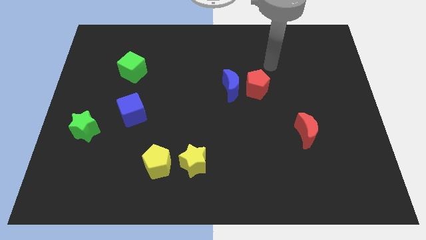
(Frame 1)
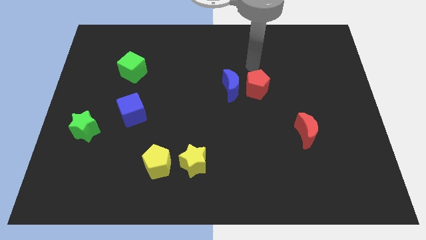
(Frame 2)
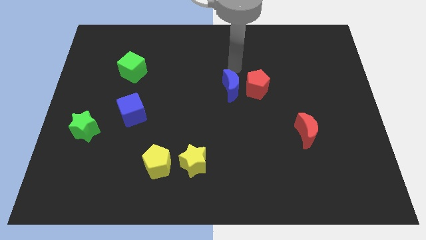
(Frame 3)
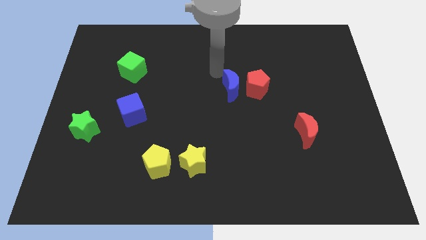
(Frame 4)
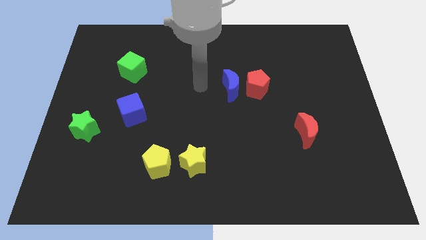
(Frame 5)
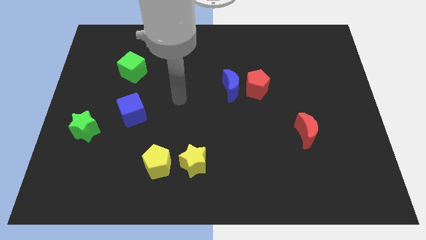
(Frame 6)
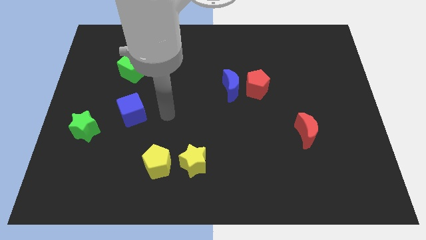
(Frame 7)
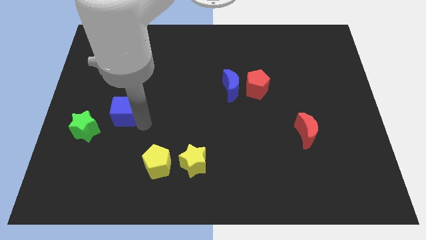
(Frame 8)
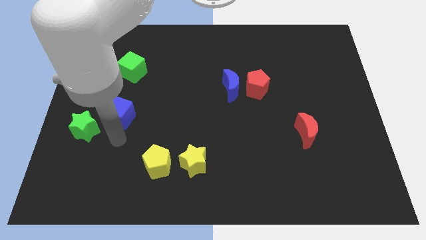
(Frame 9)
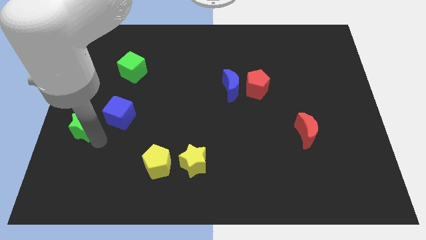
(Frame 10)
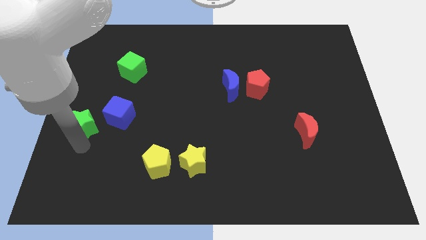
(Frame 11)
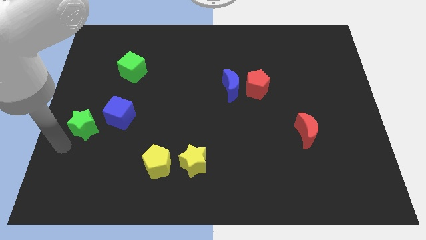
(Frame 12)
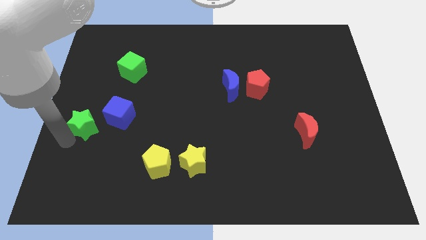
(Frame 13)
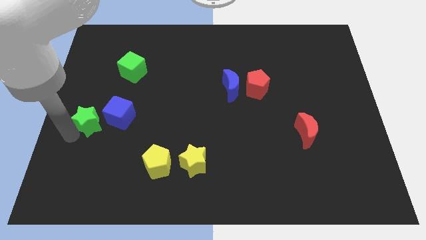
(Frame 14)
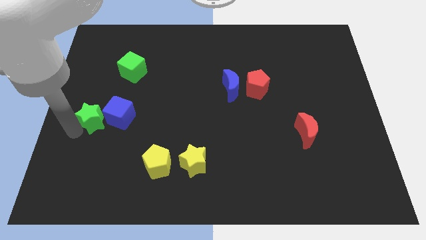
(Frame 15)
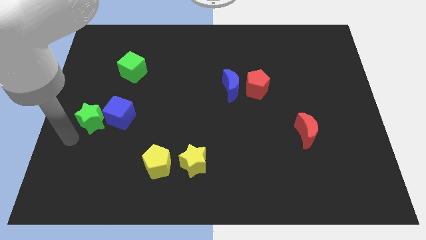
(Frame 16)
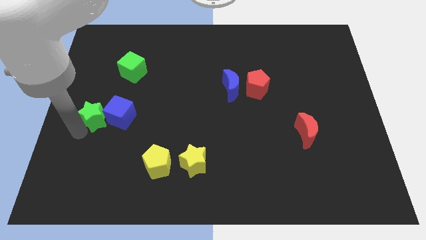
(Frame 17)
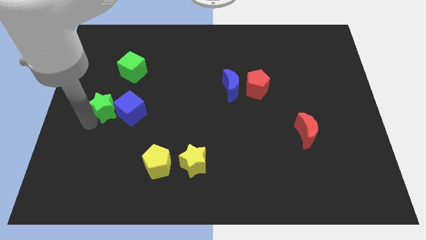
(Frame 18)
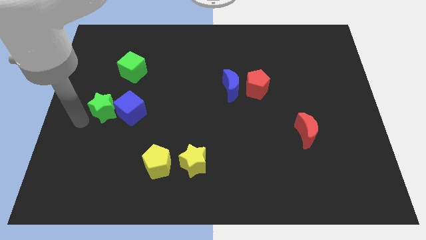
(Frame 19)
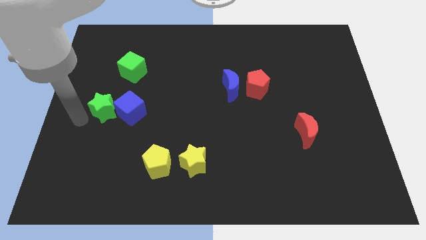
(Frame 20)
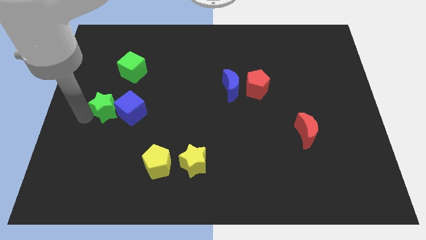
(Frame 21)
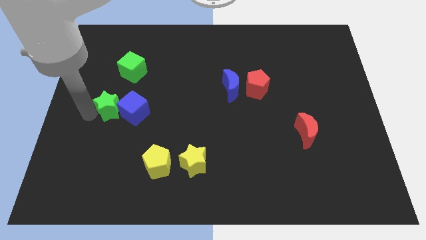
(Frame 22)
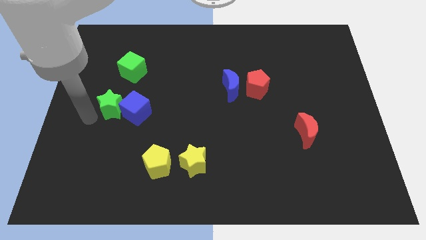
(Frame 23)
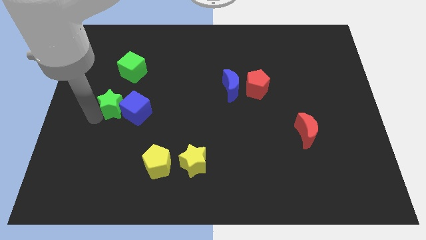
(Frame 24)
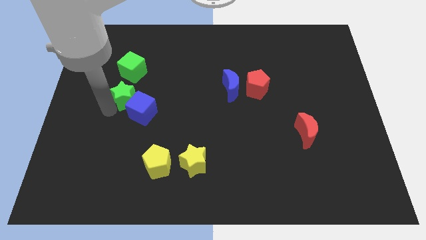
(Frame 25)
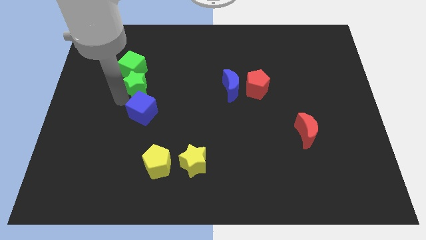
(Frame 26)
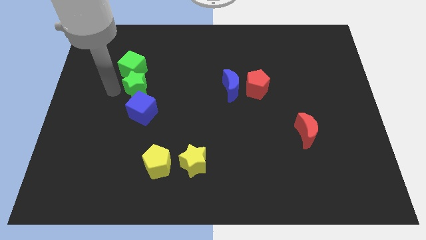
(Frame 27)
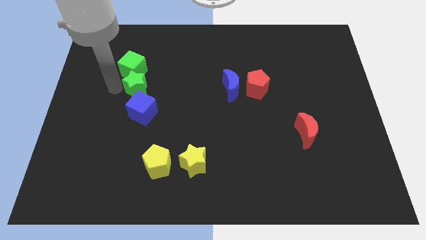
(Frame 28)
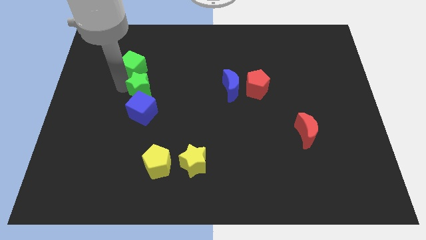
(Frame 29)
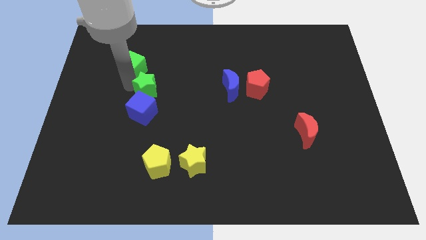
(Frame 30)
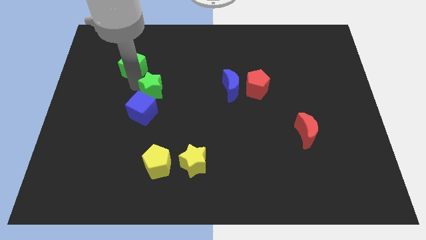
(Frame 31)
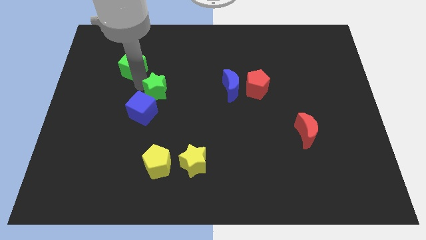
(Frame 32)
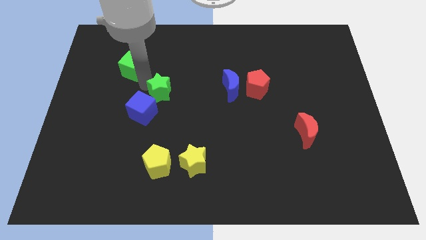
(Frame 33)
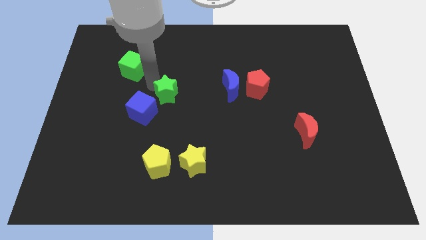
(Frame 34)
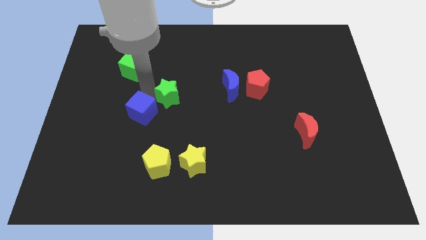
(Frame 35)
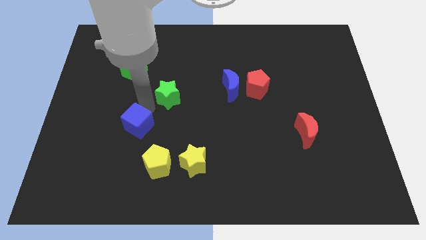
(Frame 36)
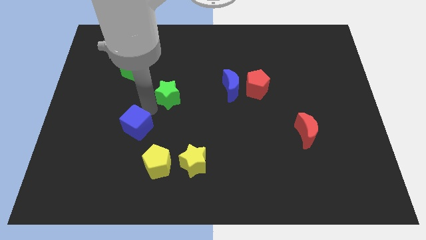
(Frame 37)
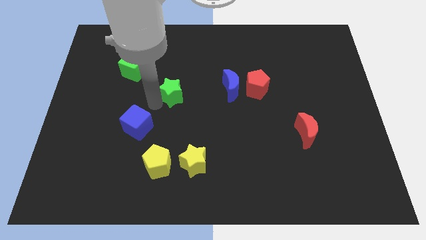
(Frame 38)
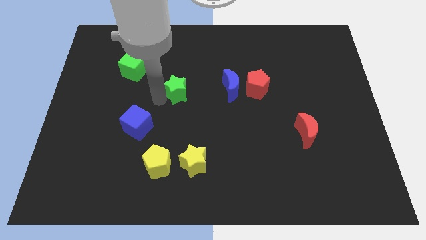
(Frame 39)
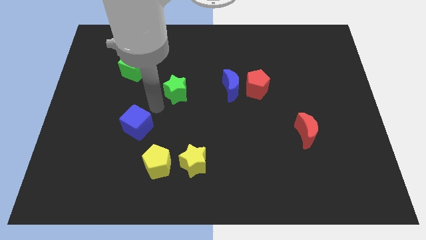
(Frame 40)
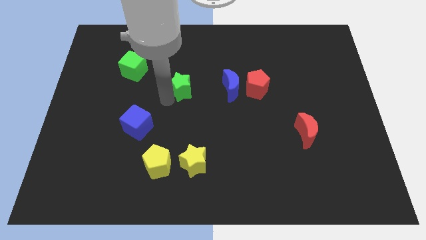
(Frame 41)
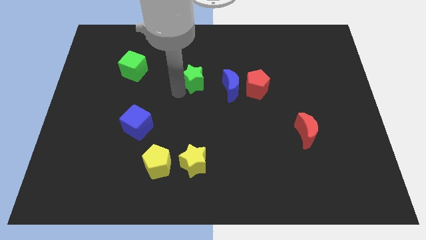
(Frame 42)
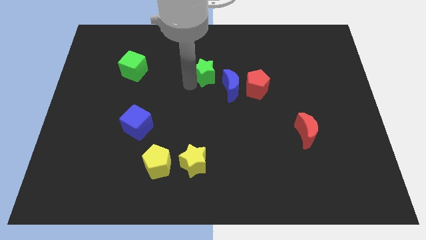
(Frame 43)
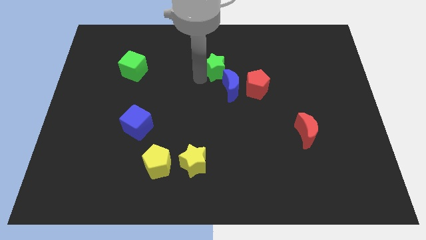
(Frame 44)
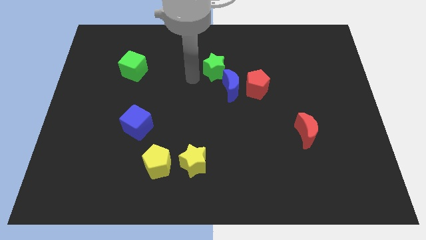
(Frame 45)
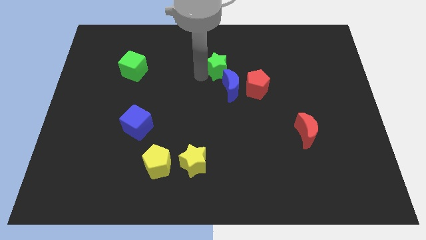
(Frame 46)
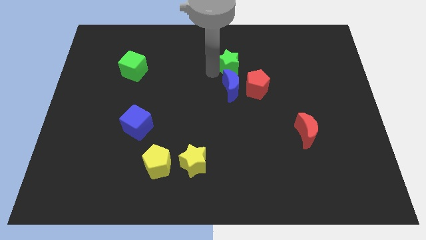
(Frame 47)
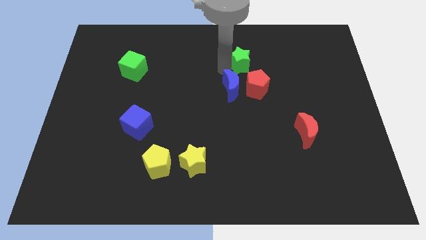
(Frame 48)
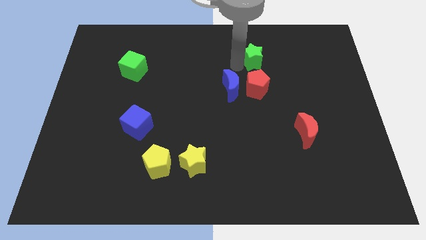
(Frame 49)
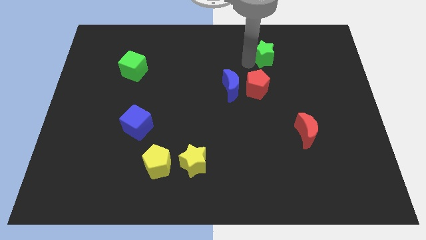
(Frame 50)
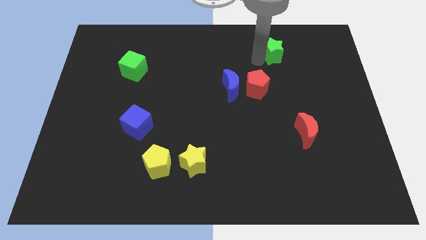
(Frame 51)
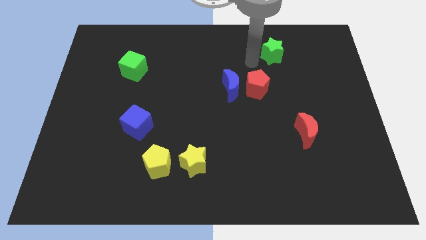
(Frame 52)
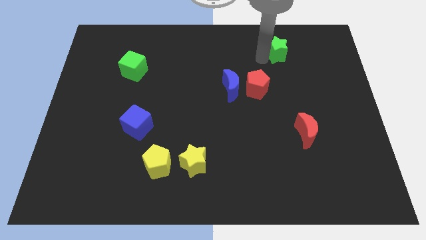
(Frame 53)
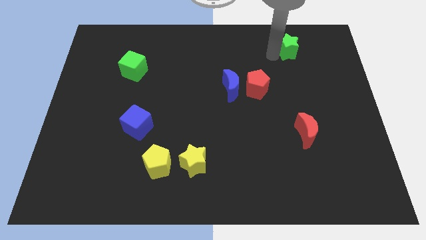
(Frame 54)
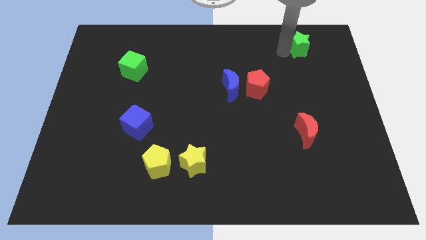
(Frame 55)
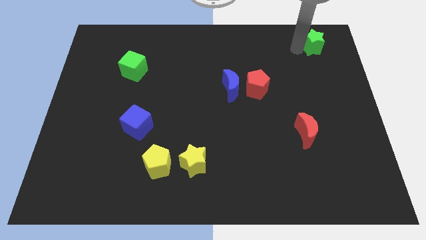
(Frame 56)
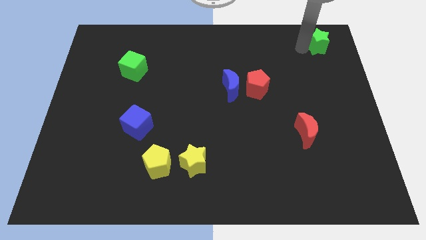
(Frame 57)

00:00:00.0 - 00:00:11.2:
push the green star to the top right of the board

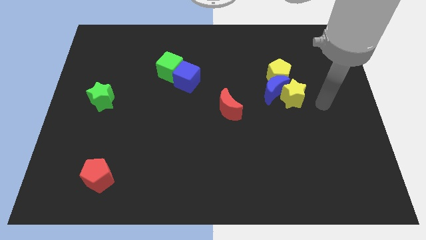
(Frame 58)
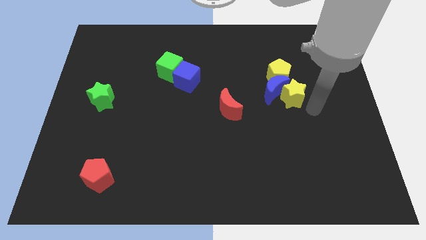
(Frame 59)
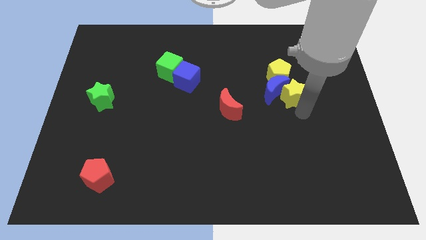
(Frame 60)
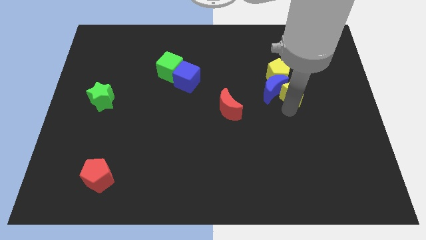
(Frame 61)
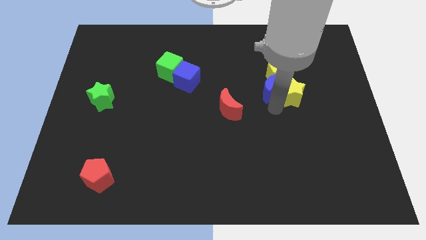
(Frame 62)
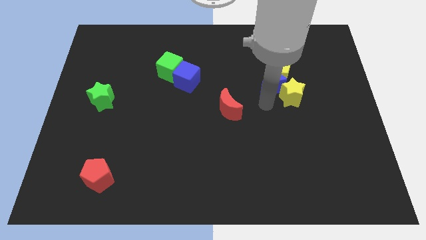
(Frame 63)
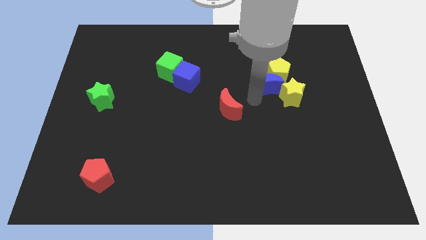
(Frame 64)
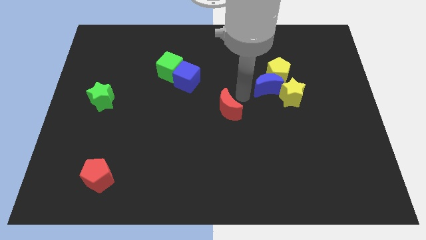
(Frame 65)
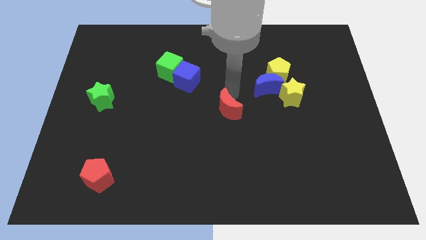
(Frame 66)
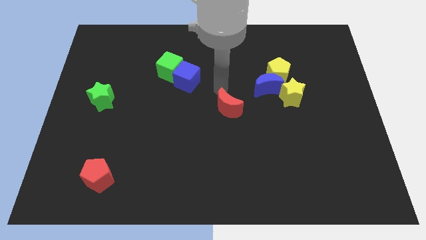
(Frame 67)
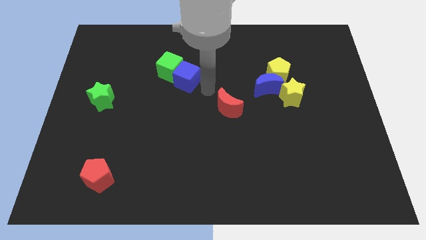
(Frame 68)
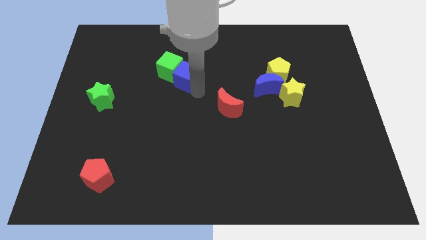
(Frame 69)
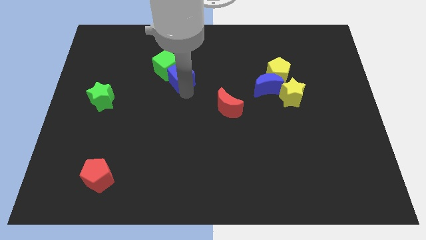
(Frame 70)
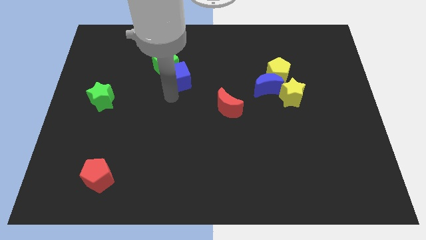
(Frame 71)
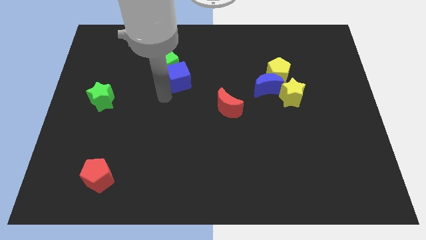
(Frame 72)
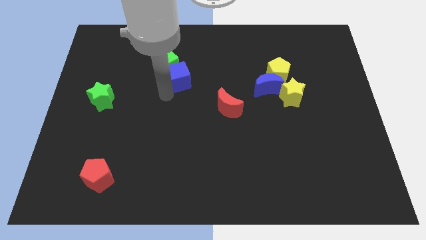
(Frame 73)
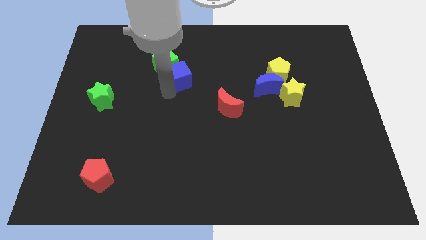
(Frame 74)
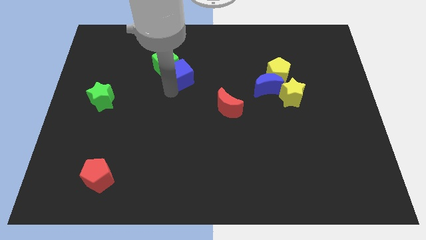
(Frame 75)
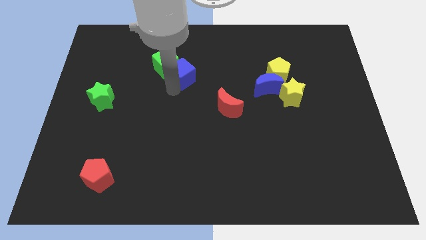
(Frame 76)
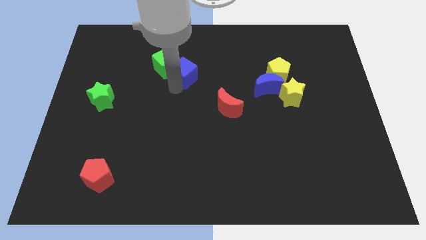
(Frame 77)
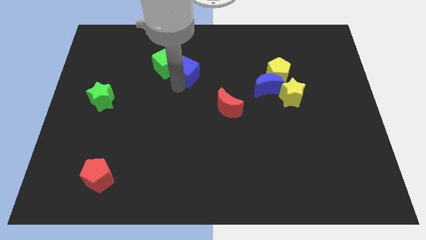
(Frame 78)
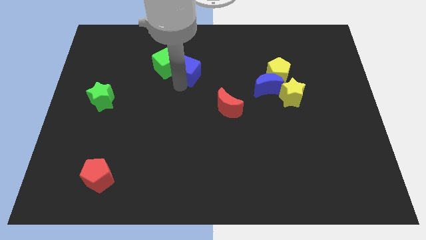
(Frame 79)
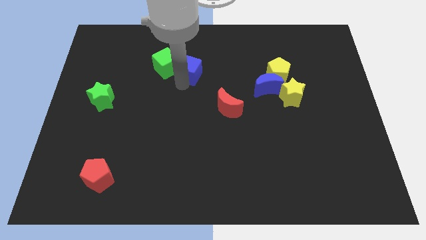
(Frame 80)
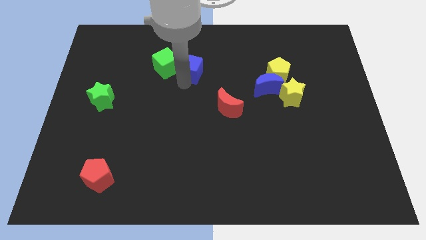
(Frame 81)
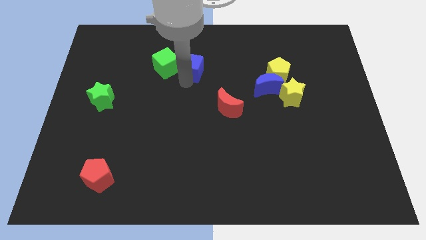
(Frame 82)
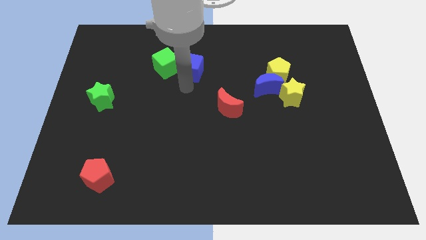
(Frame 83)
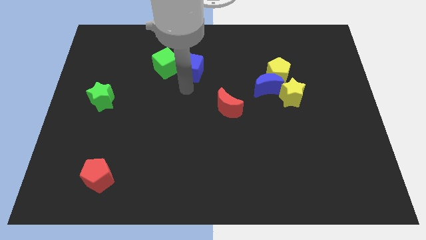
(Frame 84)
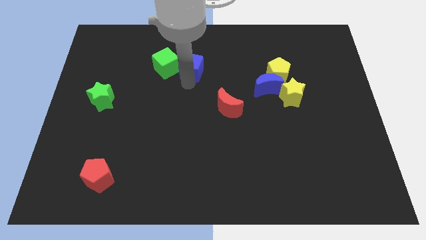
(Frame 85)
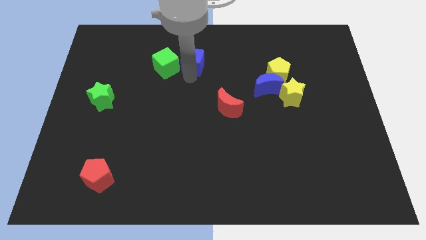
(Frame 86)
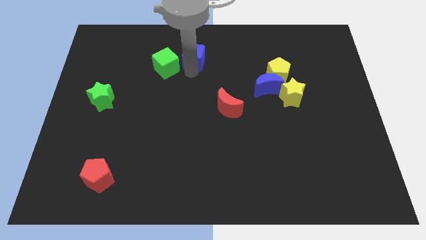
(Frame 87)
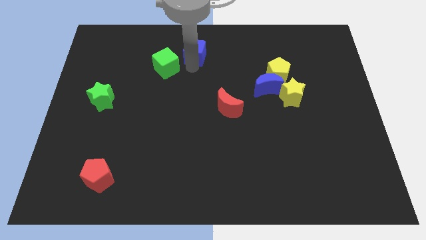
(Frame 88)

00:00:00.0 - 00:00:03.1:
push the blue cube to the top
